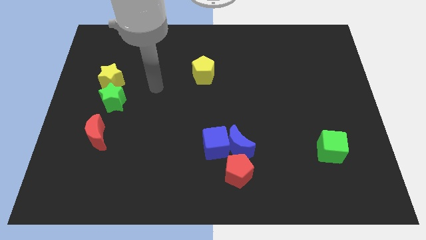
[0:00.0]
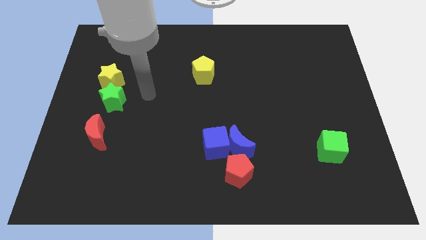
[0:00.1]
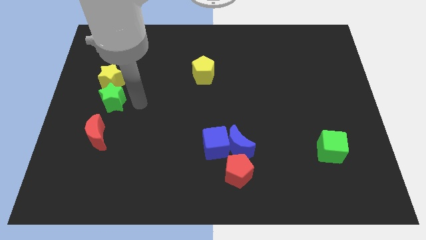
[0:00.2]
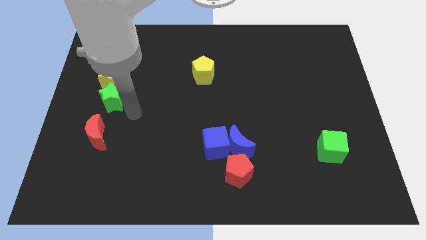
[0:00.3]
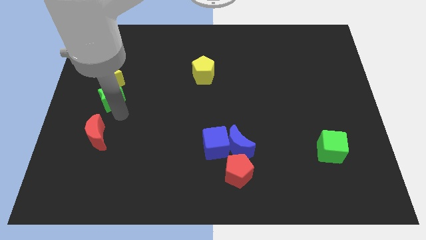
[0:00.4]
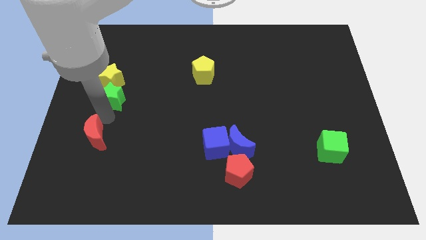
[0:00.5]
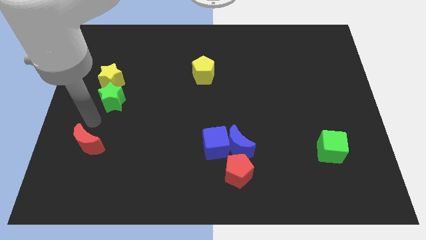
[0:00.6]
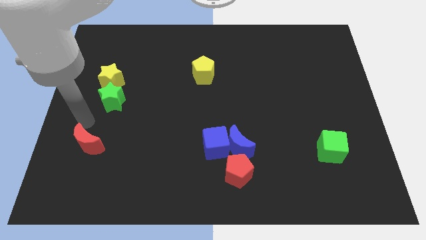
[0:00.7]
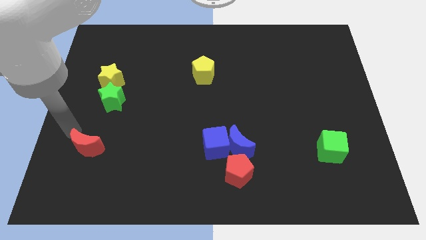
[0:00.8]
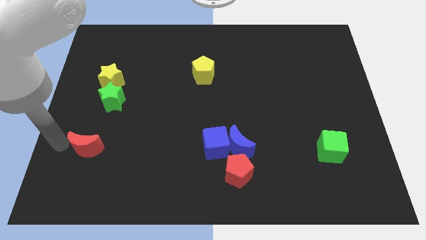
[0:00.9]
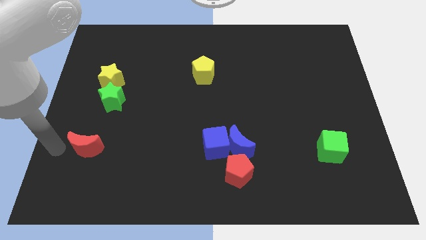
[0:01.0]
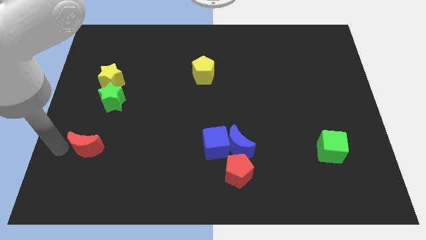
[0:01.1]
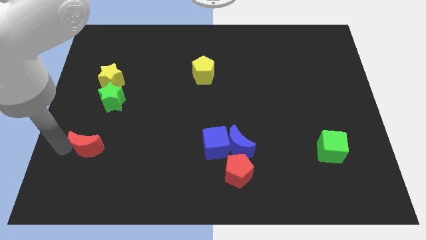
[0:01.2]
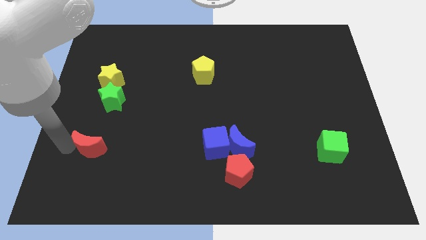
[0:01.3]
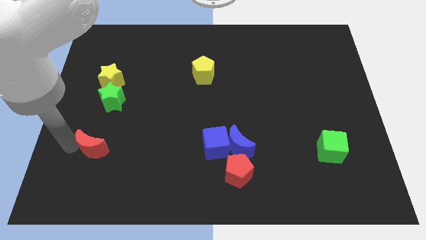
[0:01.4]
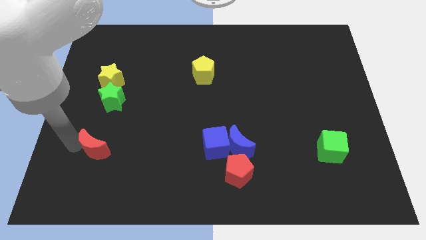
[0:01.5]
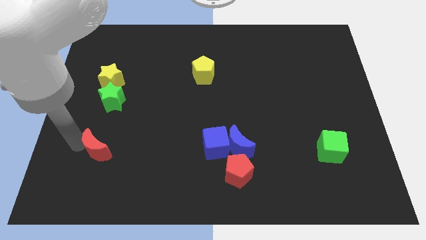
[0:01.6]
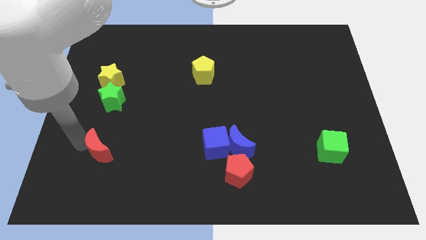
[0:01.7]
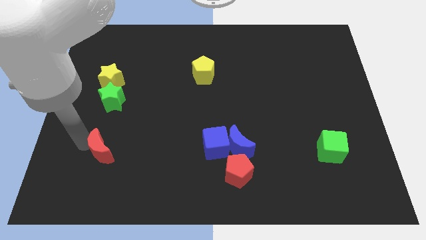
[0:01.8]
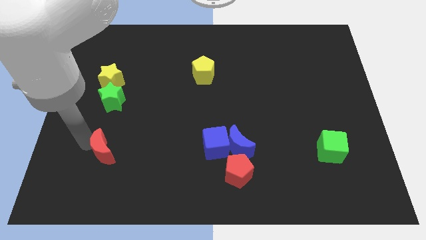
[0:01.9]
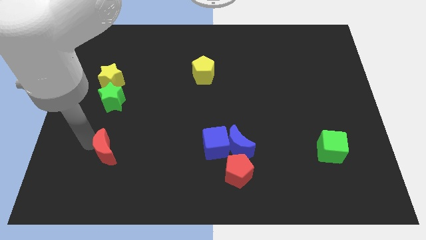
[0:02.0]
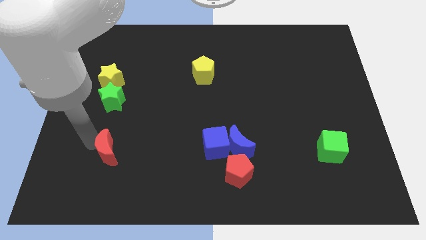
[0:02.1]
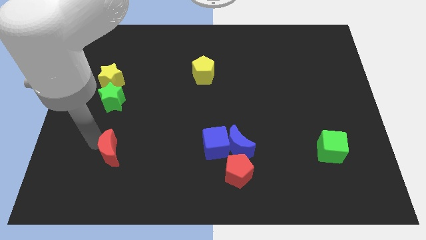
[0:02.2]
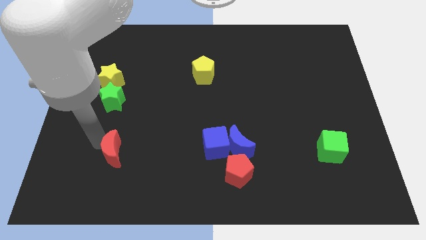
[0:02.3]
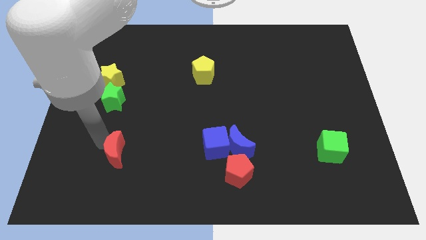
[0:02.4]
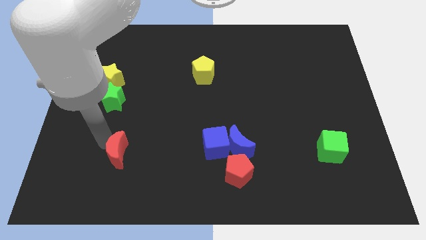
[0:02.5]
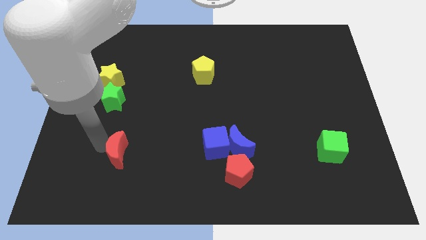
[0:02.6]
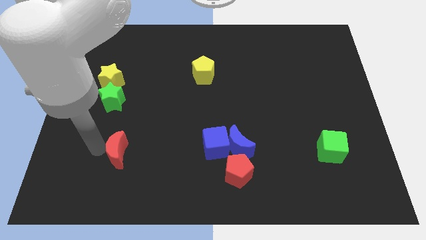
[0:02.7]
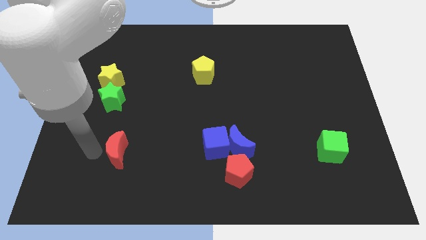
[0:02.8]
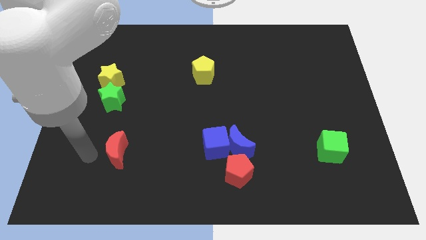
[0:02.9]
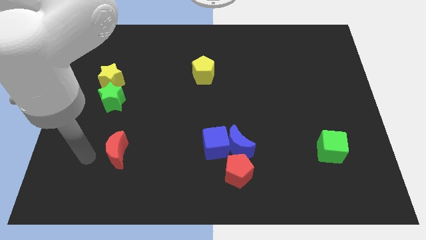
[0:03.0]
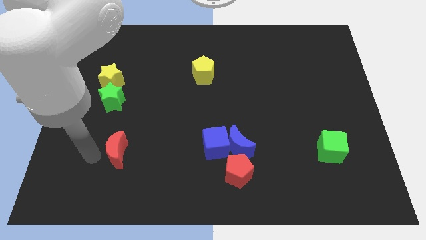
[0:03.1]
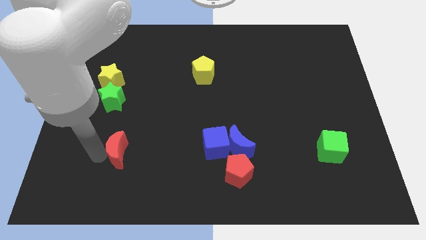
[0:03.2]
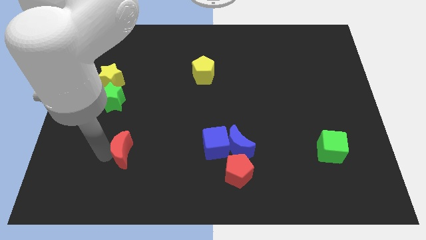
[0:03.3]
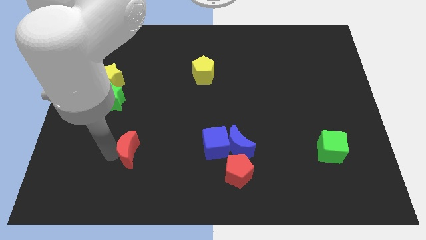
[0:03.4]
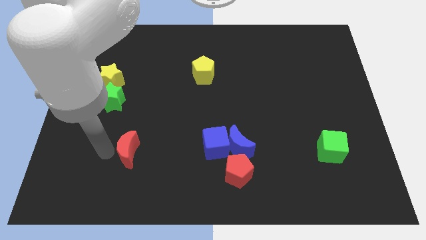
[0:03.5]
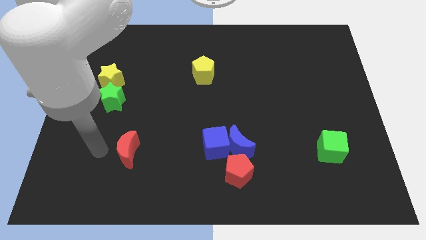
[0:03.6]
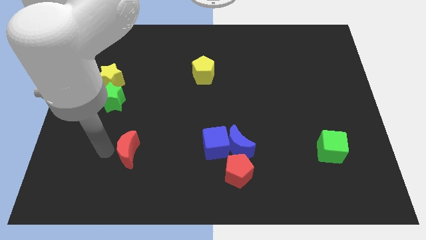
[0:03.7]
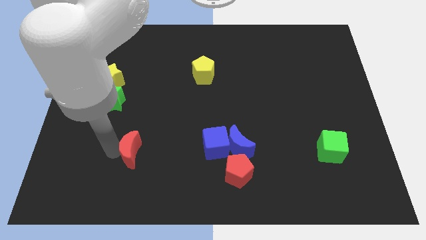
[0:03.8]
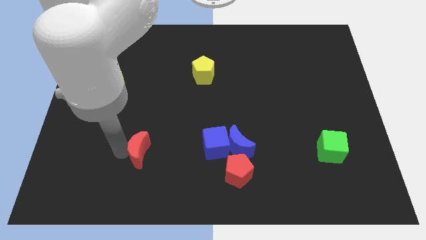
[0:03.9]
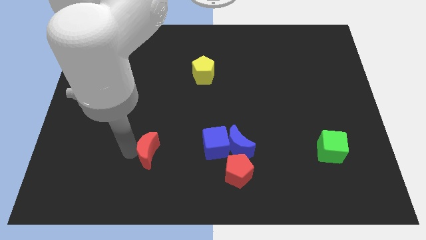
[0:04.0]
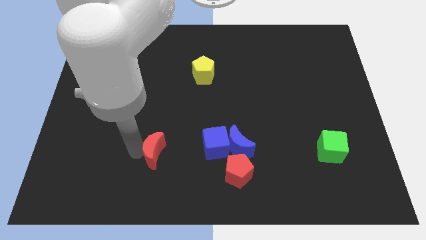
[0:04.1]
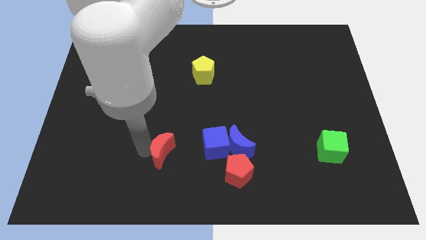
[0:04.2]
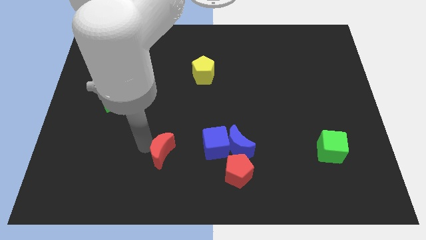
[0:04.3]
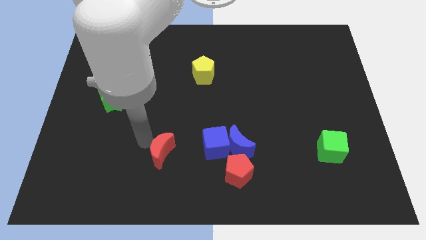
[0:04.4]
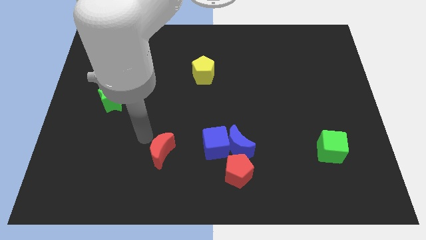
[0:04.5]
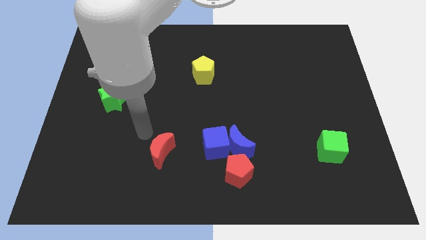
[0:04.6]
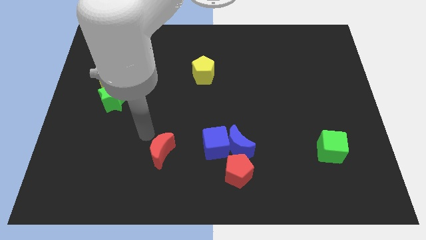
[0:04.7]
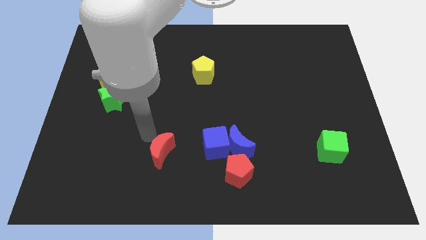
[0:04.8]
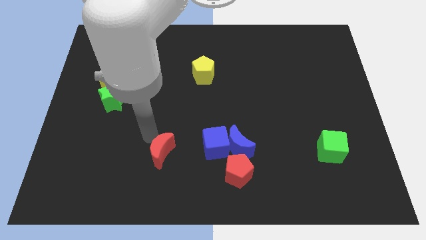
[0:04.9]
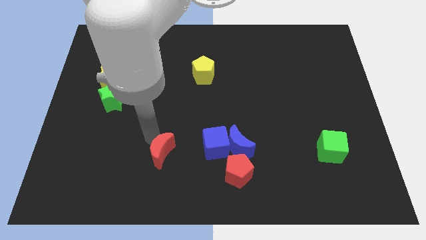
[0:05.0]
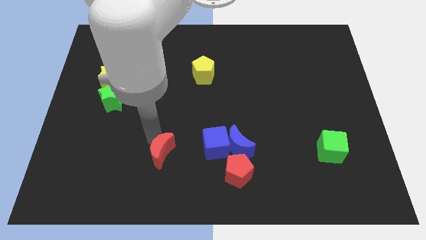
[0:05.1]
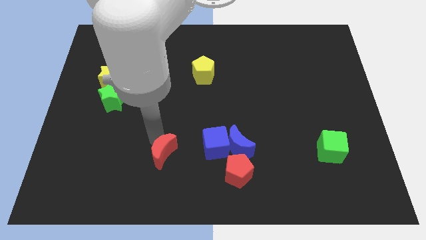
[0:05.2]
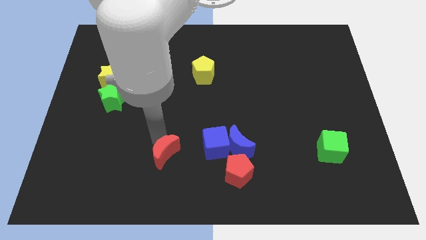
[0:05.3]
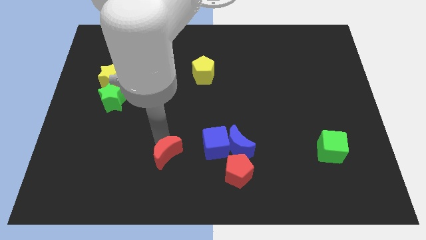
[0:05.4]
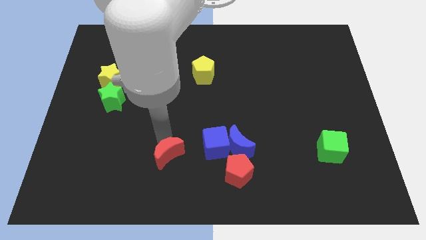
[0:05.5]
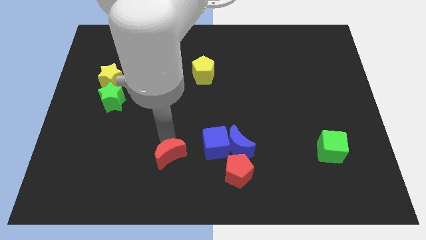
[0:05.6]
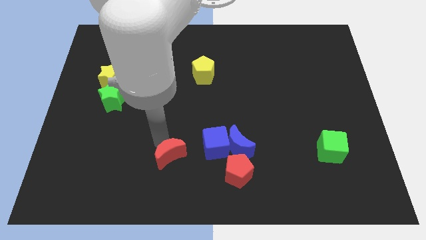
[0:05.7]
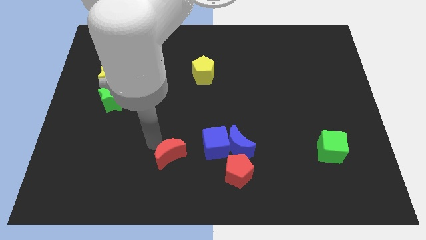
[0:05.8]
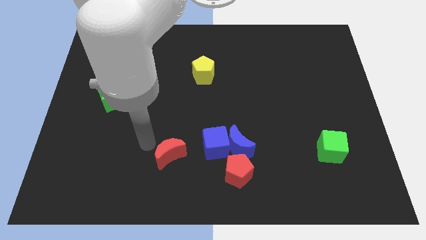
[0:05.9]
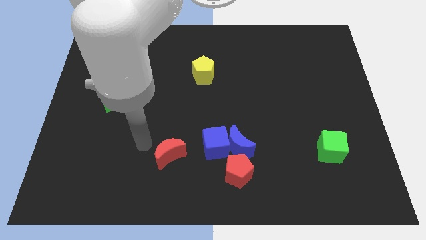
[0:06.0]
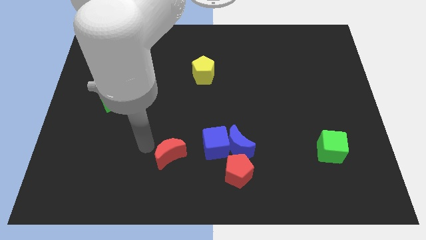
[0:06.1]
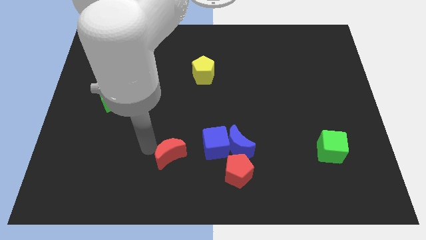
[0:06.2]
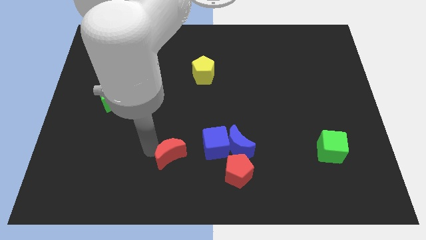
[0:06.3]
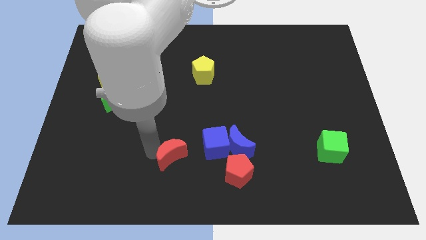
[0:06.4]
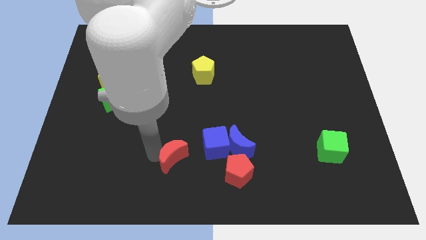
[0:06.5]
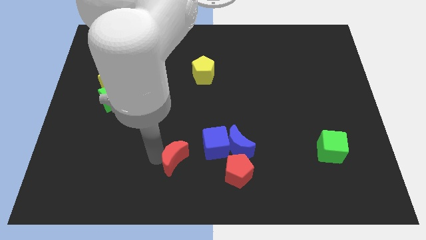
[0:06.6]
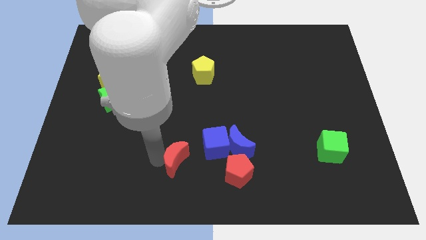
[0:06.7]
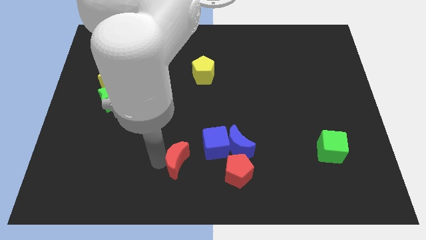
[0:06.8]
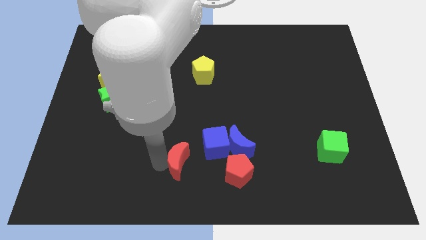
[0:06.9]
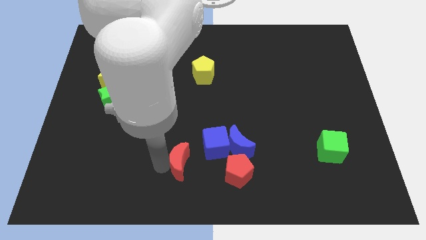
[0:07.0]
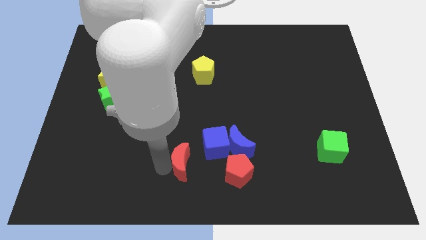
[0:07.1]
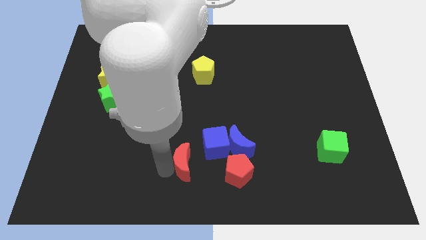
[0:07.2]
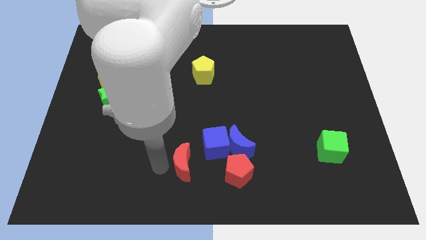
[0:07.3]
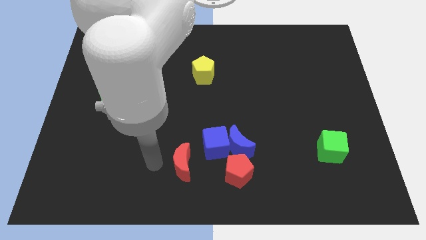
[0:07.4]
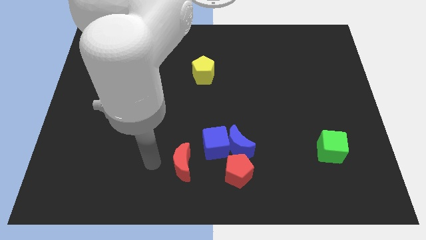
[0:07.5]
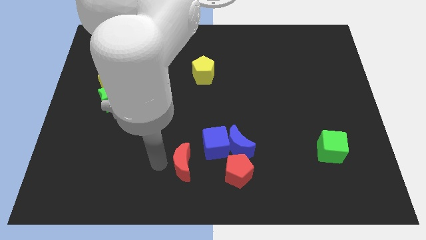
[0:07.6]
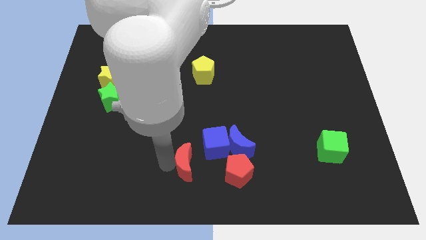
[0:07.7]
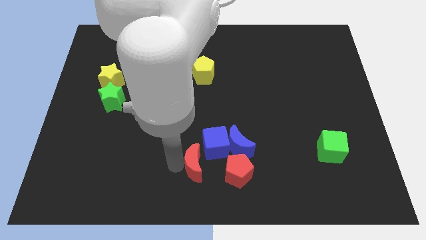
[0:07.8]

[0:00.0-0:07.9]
slide the red moon diagonally down and to the left of the blue moon
